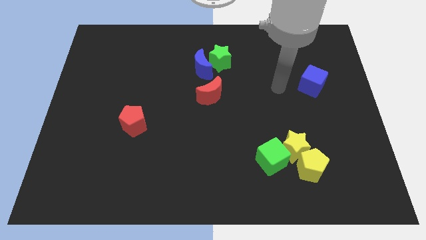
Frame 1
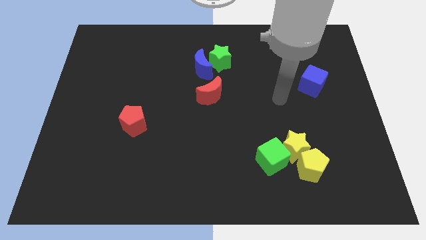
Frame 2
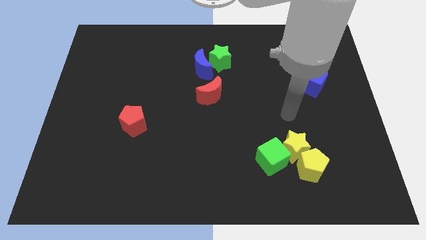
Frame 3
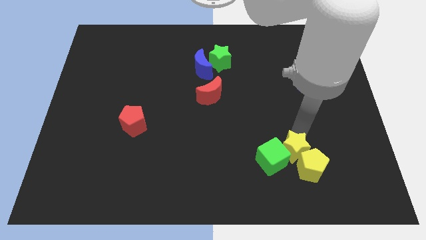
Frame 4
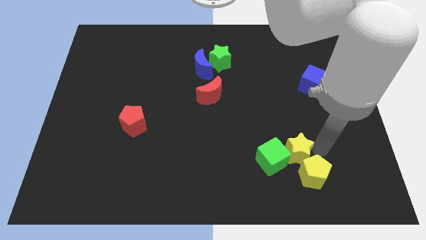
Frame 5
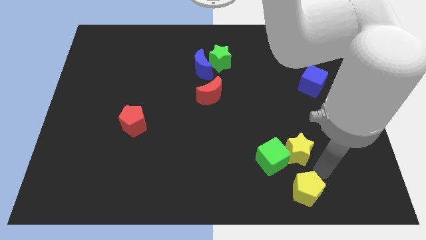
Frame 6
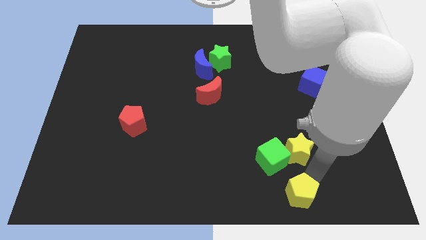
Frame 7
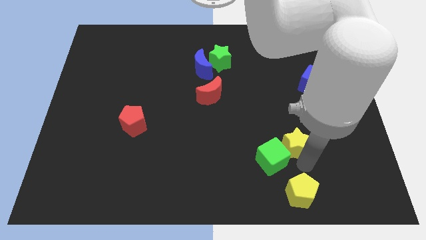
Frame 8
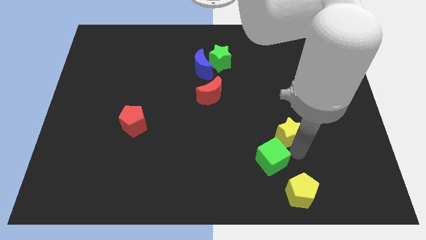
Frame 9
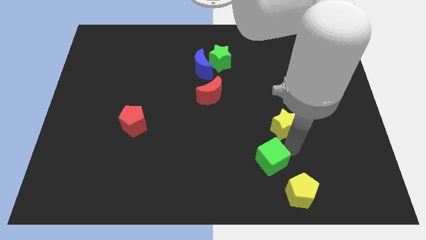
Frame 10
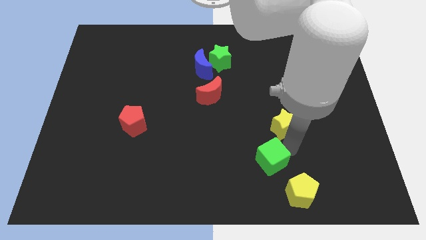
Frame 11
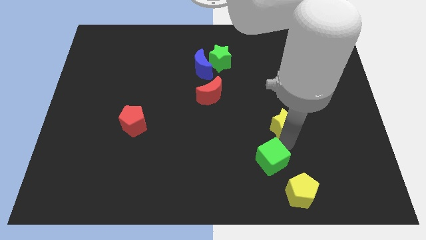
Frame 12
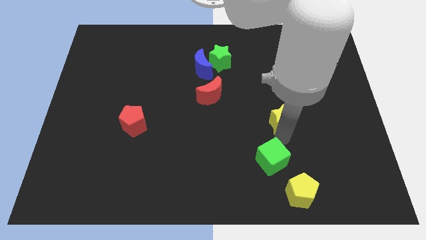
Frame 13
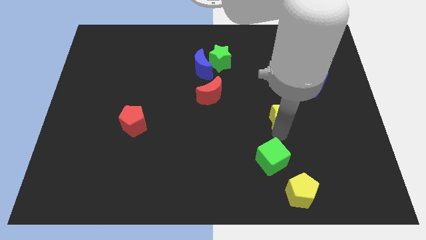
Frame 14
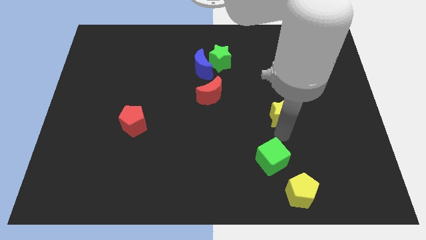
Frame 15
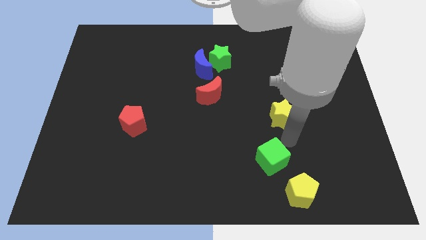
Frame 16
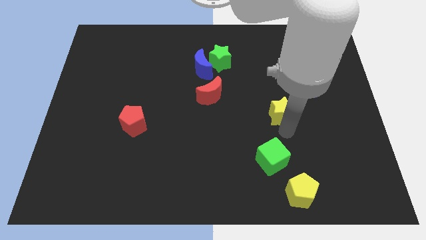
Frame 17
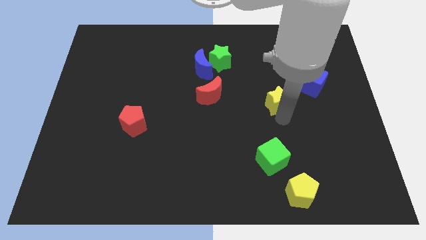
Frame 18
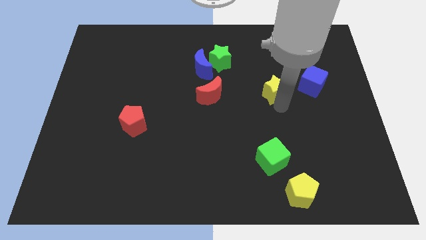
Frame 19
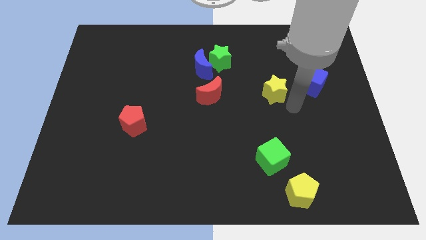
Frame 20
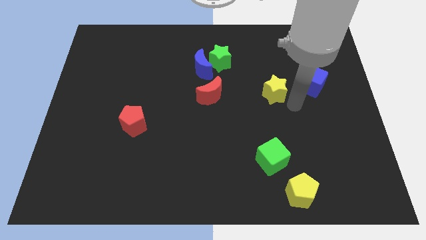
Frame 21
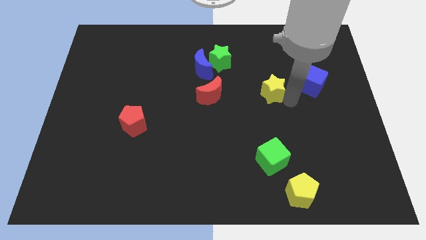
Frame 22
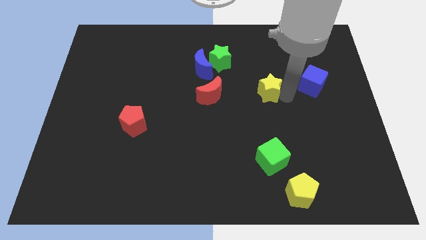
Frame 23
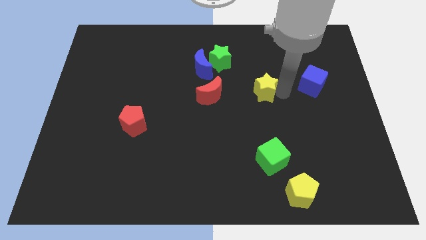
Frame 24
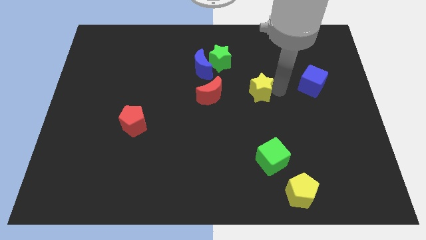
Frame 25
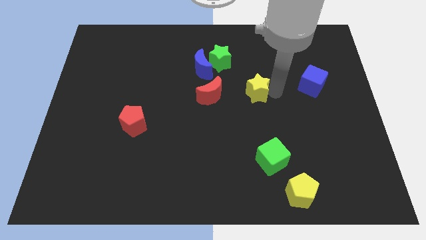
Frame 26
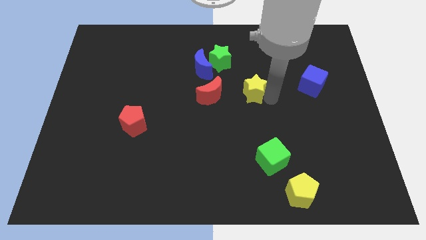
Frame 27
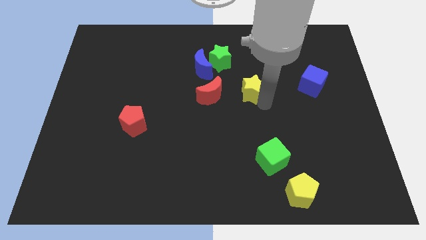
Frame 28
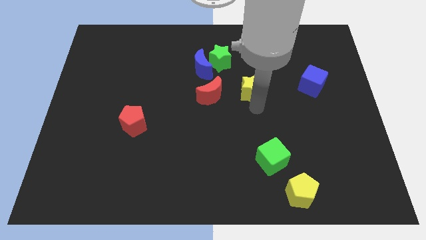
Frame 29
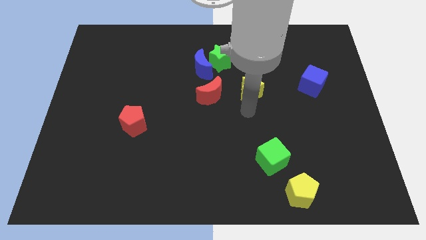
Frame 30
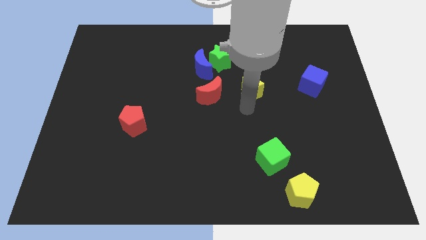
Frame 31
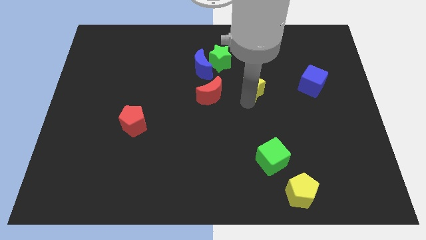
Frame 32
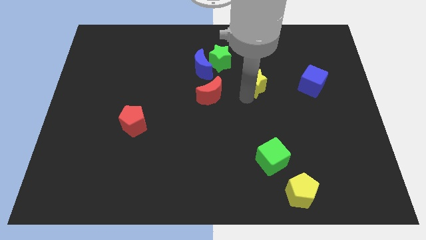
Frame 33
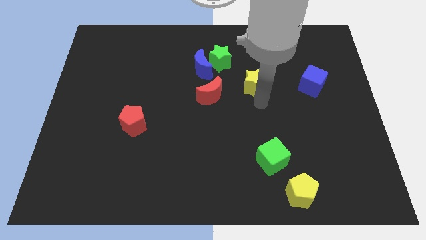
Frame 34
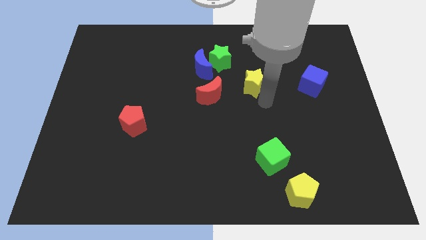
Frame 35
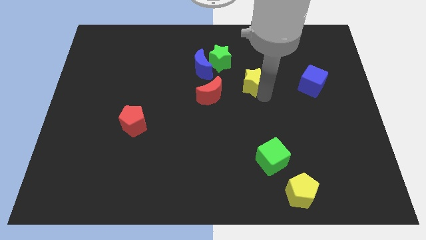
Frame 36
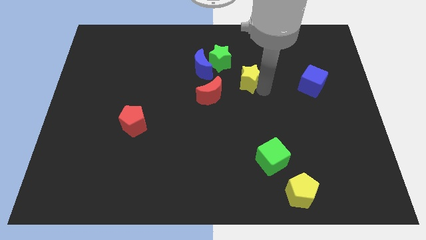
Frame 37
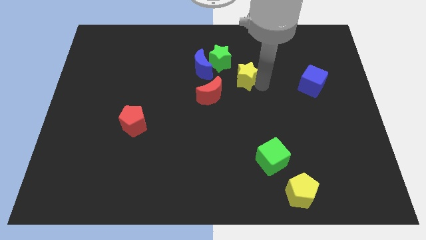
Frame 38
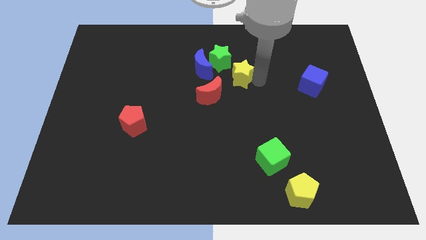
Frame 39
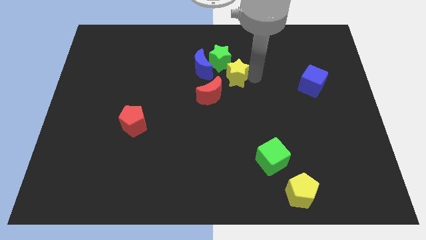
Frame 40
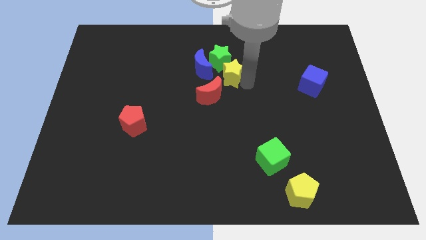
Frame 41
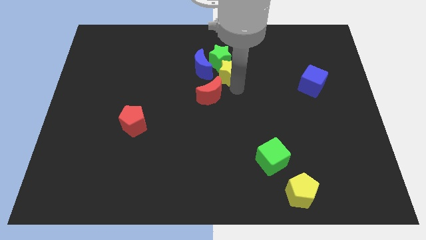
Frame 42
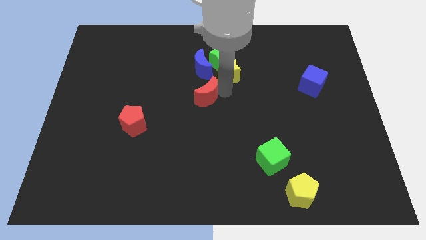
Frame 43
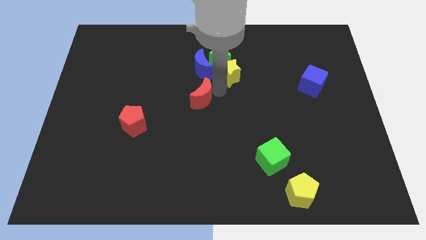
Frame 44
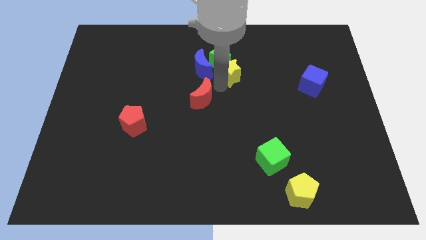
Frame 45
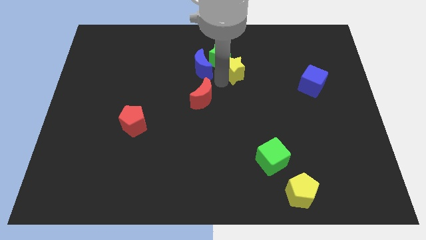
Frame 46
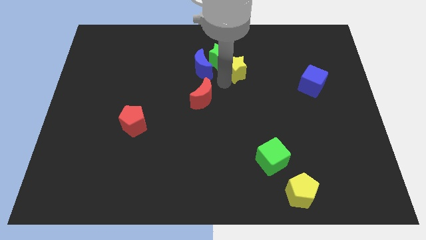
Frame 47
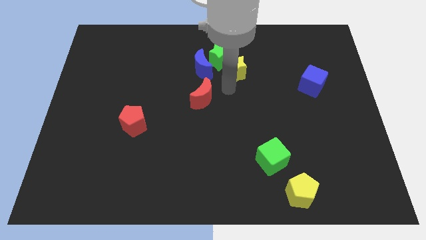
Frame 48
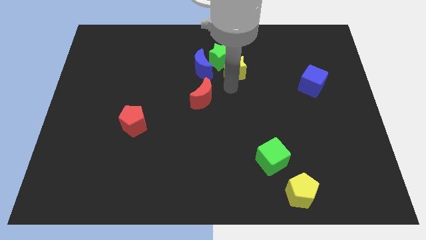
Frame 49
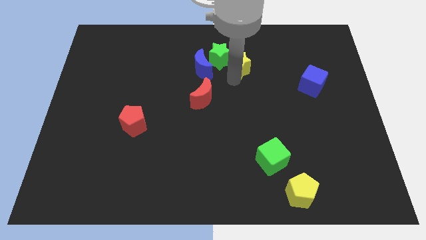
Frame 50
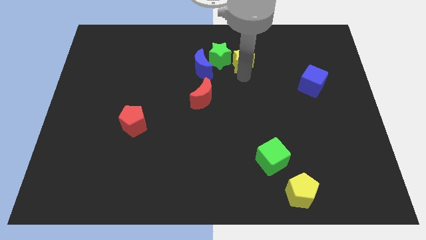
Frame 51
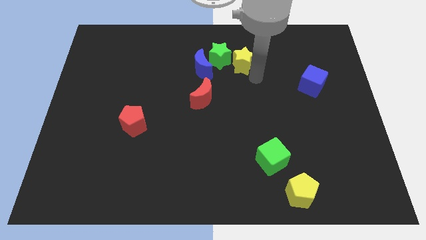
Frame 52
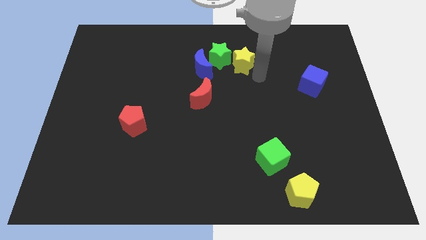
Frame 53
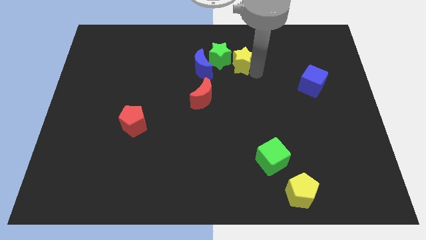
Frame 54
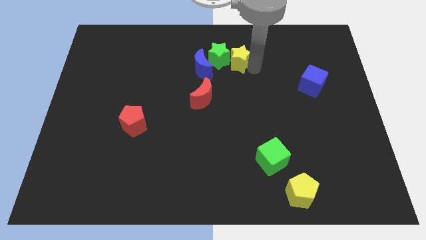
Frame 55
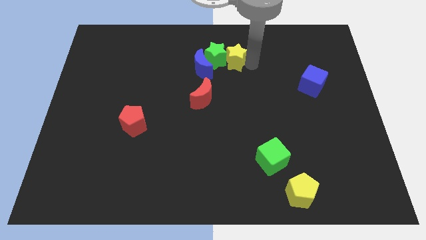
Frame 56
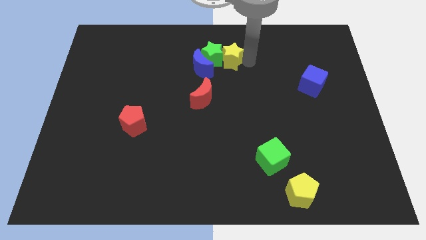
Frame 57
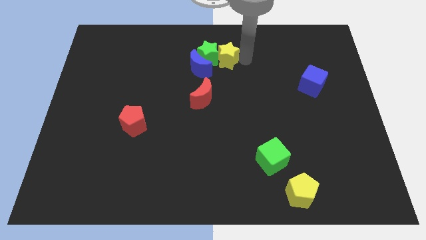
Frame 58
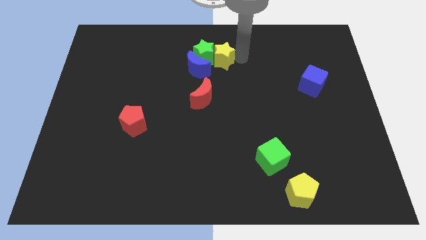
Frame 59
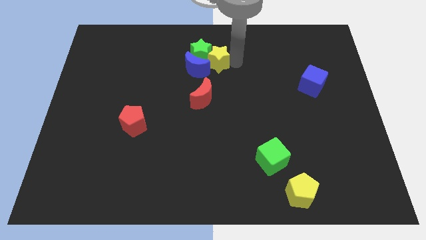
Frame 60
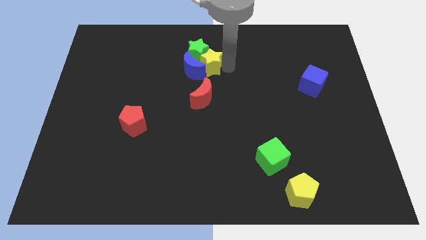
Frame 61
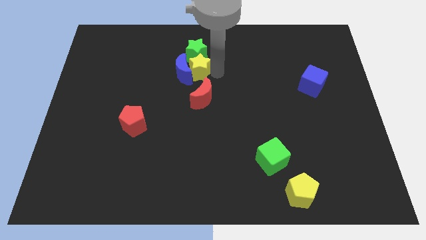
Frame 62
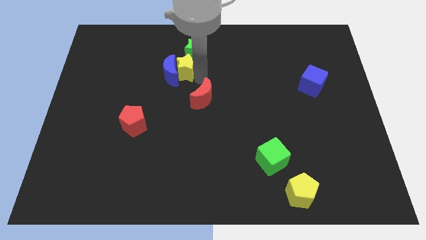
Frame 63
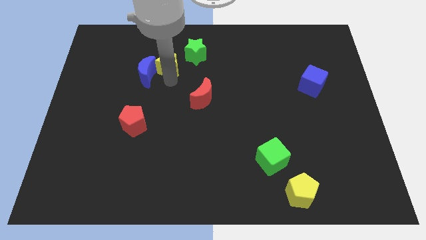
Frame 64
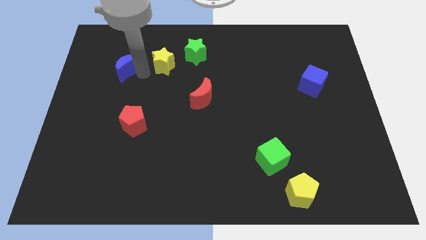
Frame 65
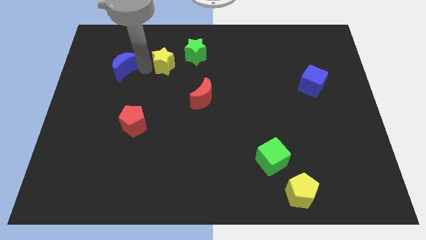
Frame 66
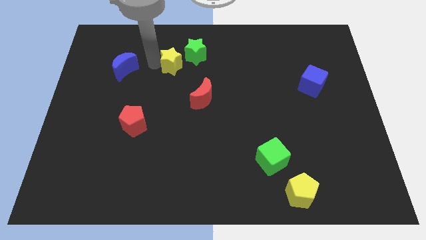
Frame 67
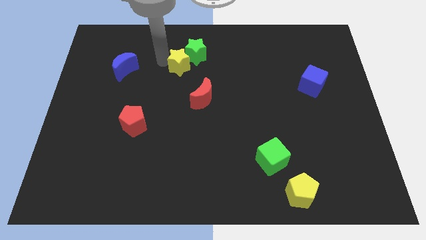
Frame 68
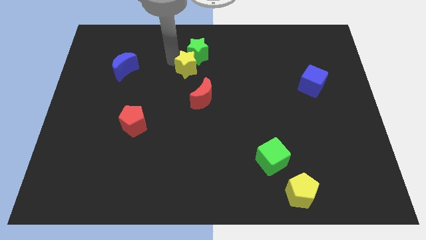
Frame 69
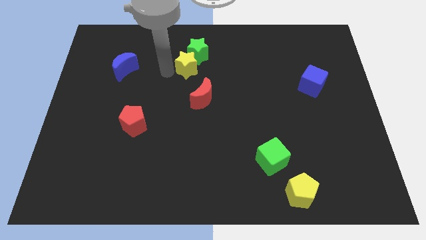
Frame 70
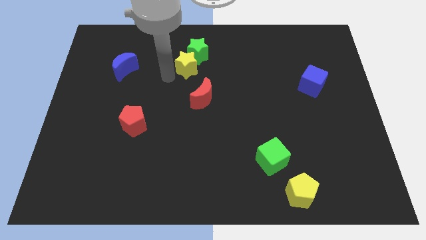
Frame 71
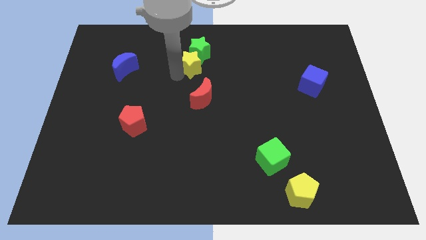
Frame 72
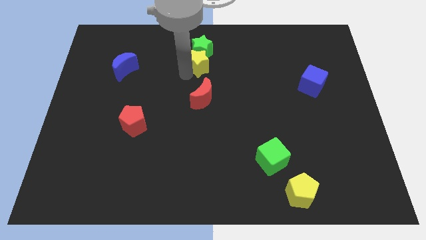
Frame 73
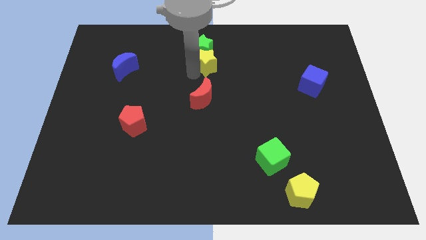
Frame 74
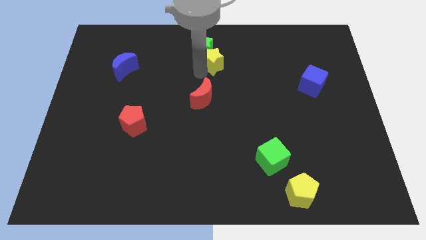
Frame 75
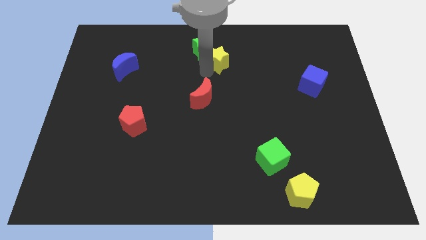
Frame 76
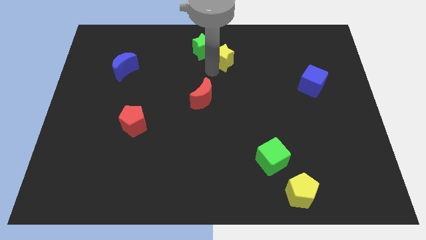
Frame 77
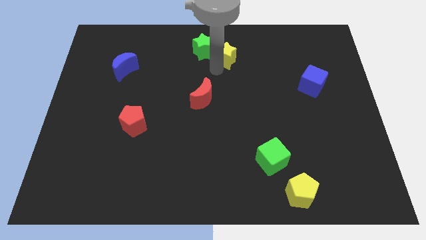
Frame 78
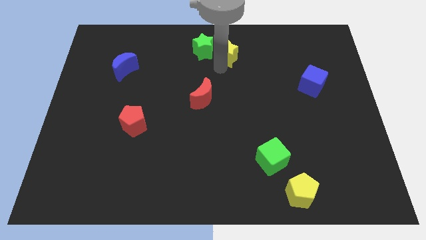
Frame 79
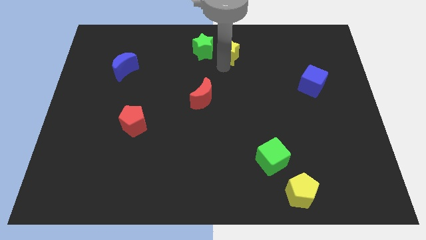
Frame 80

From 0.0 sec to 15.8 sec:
put the yellow star to the towards your base
